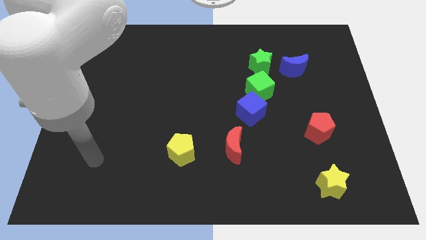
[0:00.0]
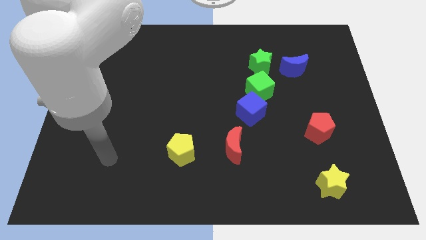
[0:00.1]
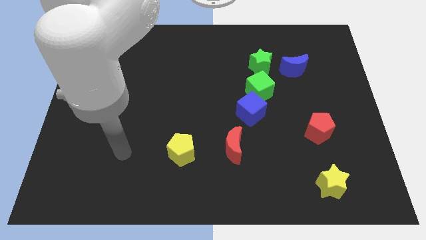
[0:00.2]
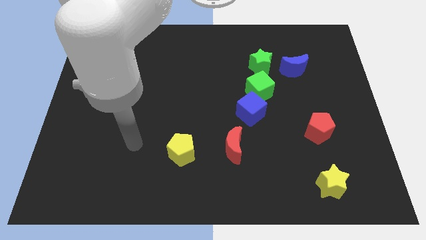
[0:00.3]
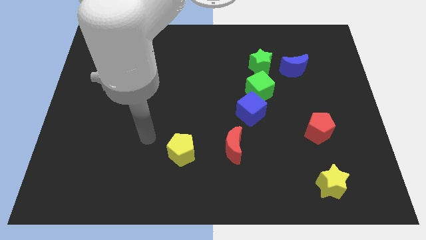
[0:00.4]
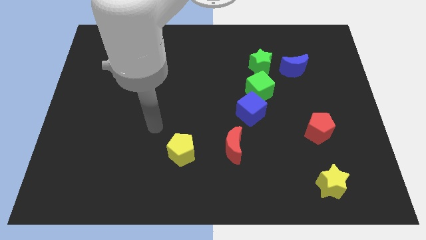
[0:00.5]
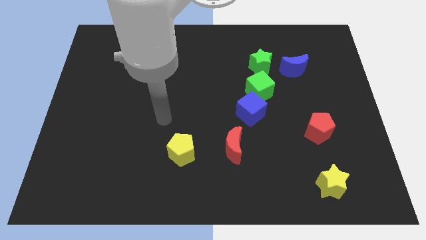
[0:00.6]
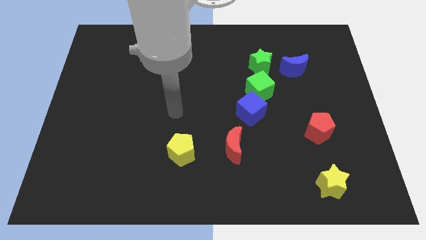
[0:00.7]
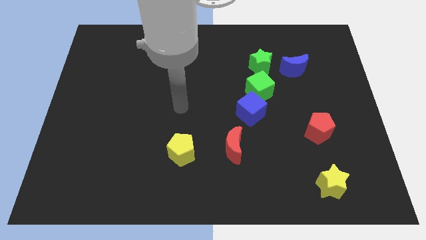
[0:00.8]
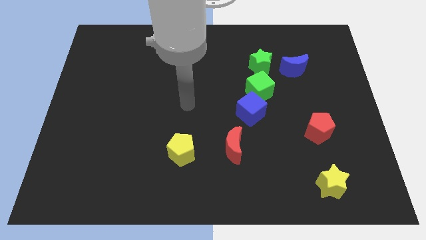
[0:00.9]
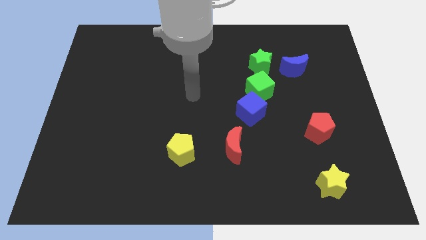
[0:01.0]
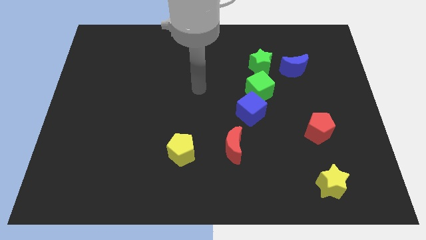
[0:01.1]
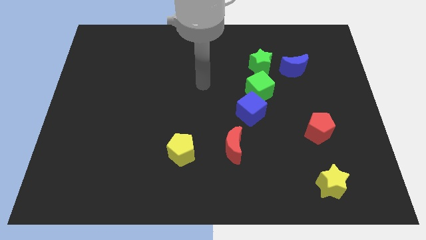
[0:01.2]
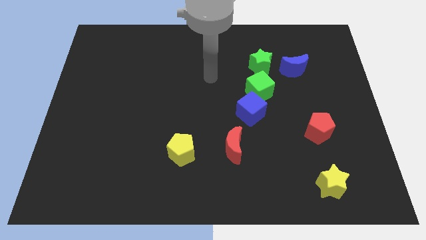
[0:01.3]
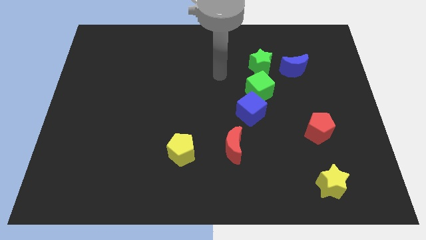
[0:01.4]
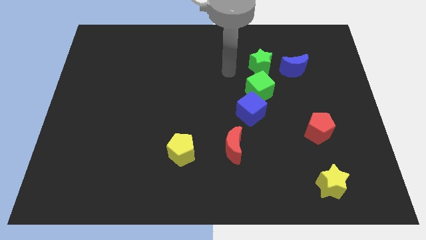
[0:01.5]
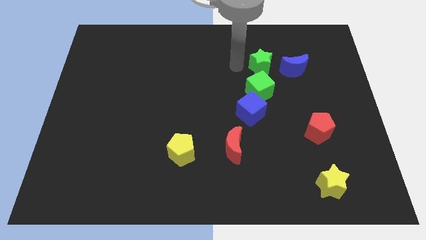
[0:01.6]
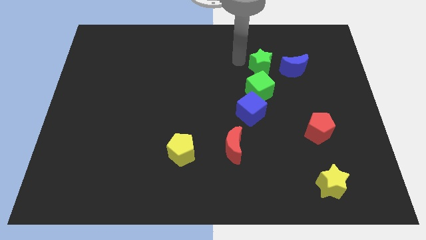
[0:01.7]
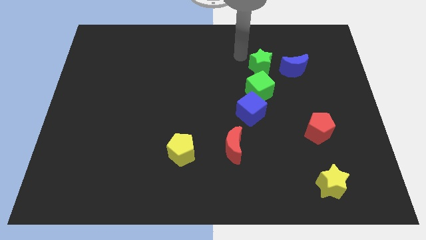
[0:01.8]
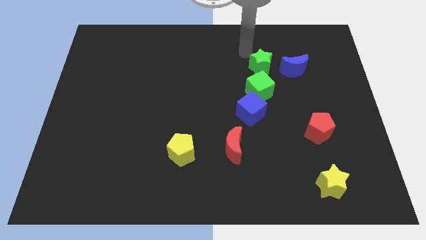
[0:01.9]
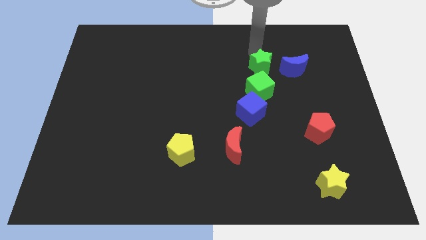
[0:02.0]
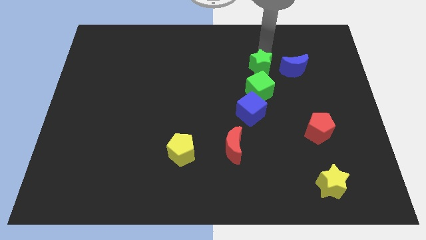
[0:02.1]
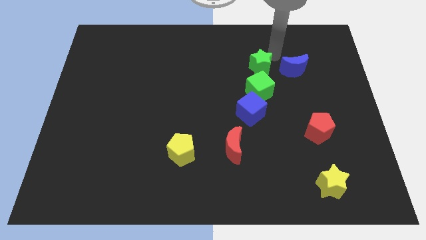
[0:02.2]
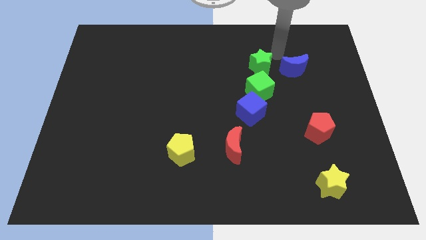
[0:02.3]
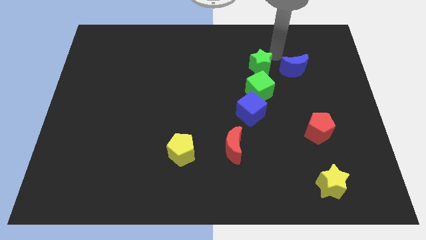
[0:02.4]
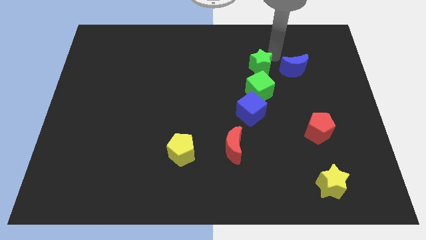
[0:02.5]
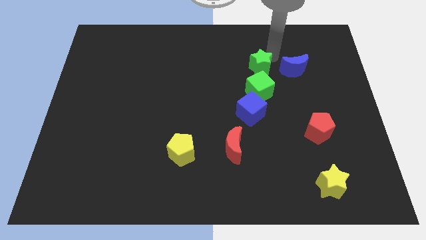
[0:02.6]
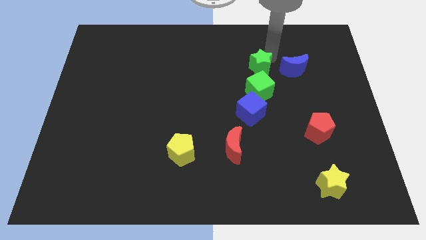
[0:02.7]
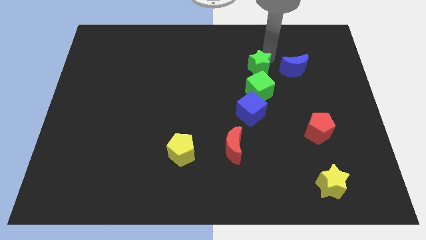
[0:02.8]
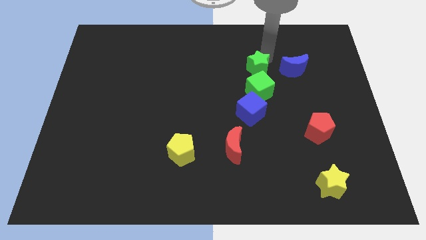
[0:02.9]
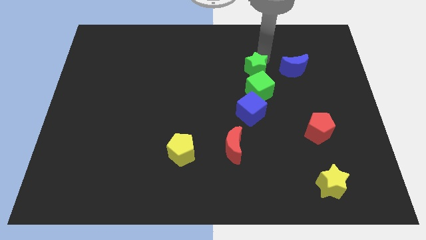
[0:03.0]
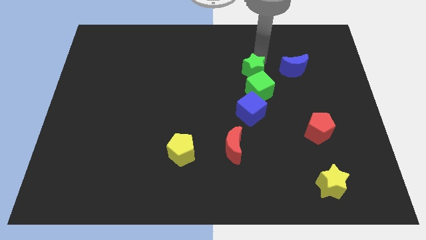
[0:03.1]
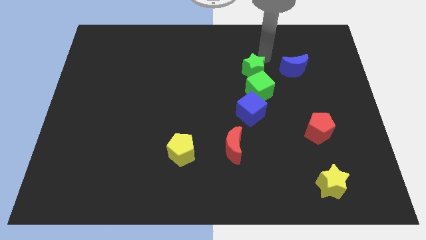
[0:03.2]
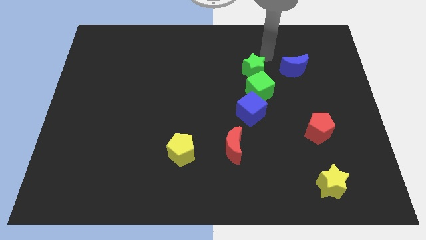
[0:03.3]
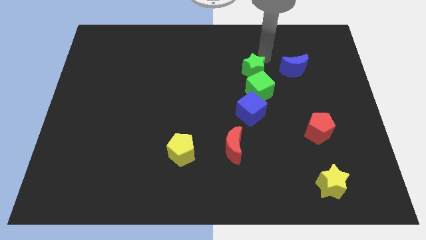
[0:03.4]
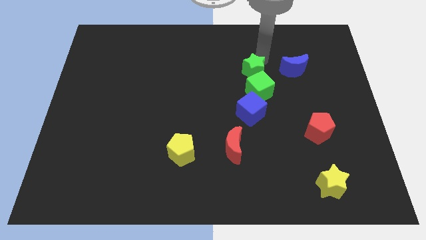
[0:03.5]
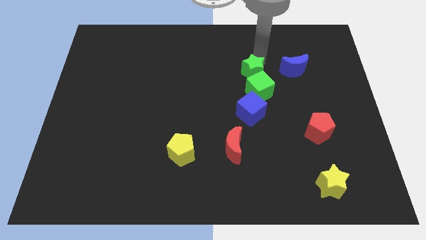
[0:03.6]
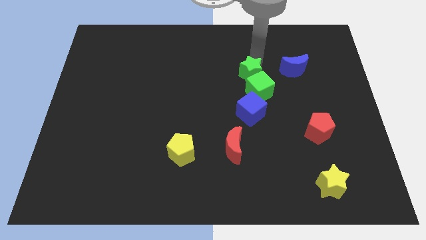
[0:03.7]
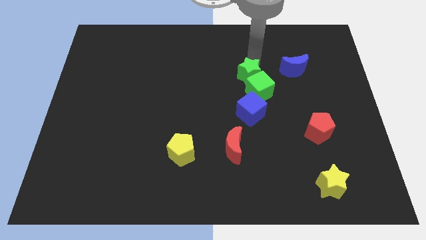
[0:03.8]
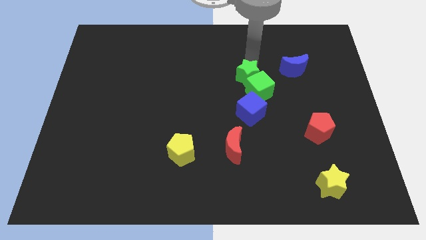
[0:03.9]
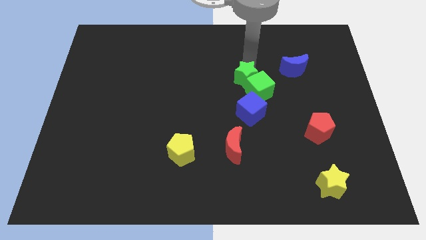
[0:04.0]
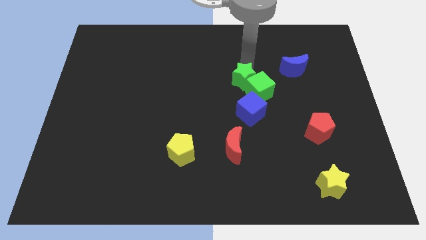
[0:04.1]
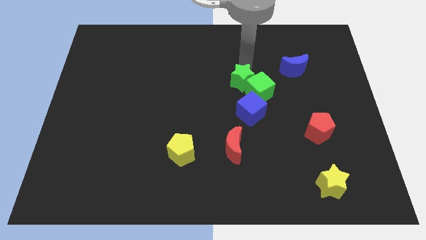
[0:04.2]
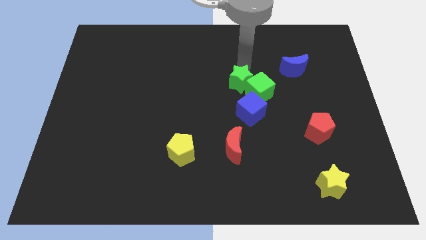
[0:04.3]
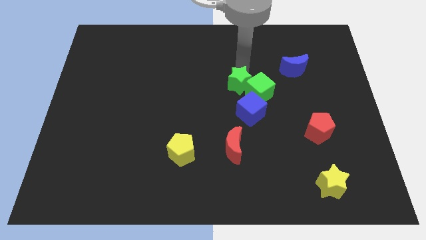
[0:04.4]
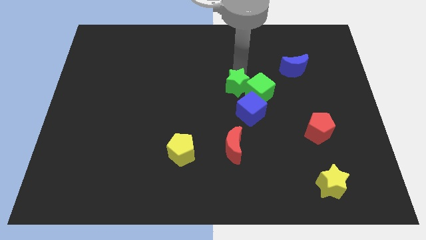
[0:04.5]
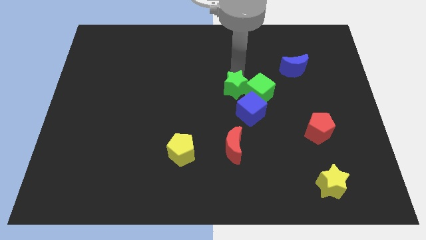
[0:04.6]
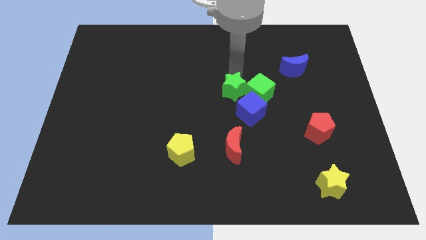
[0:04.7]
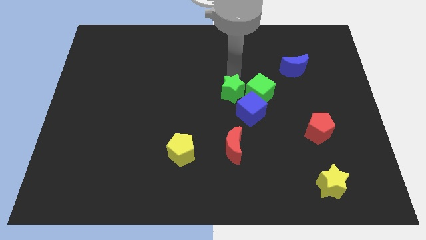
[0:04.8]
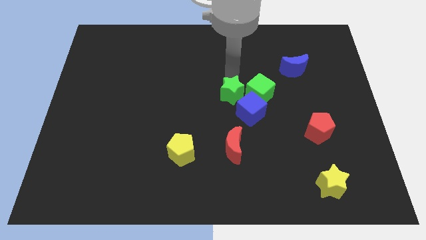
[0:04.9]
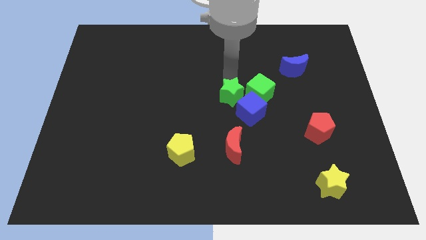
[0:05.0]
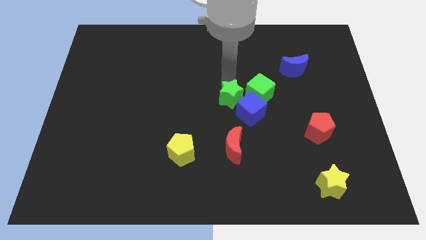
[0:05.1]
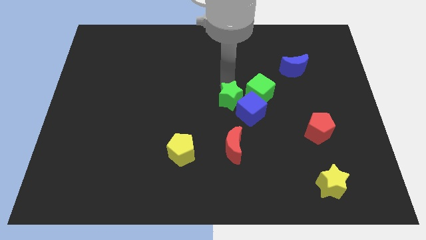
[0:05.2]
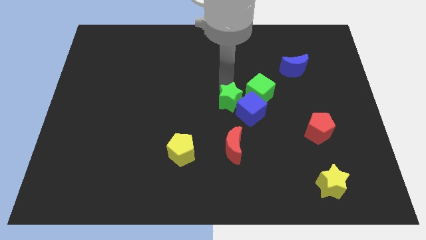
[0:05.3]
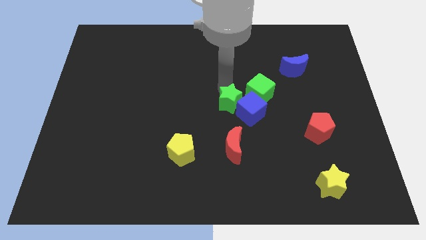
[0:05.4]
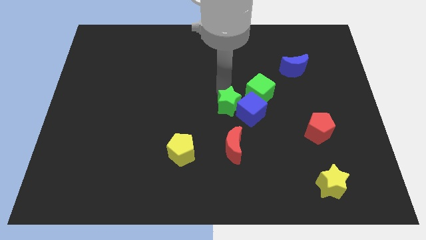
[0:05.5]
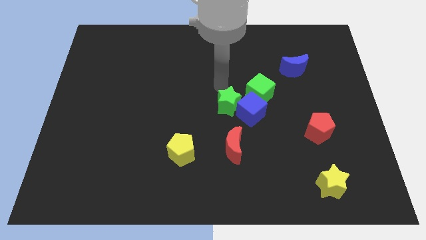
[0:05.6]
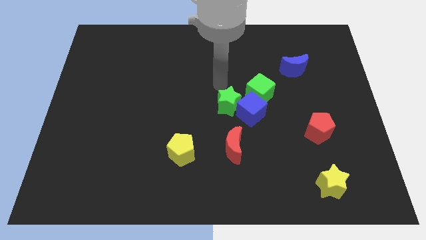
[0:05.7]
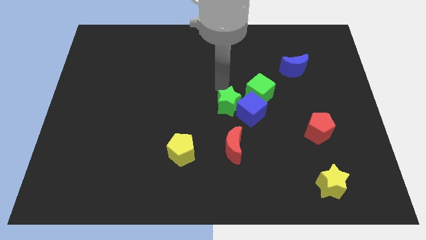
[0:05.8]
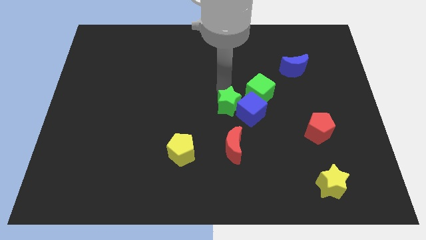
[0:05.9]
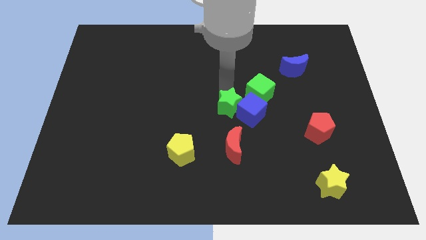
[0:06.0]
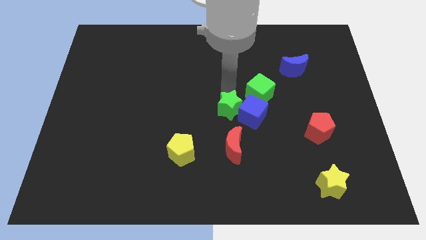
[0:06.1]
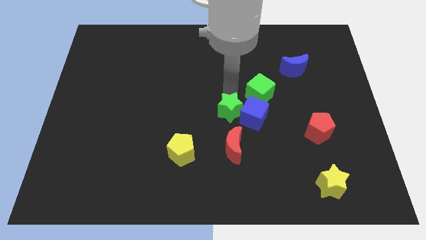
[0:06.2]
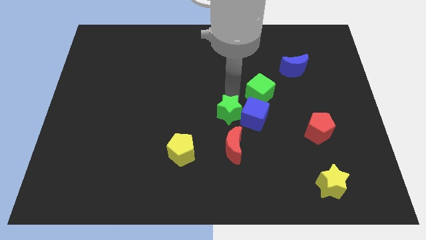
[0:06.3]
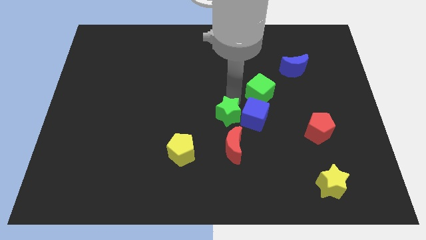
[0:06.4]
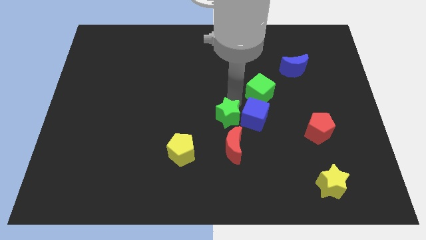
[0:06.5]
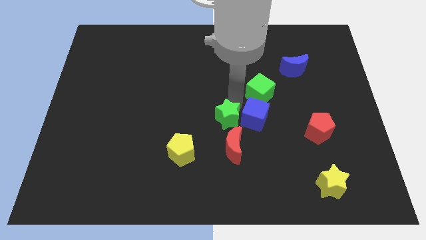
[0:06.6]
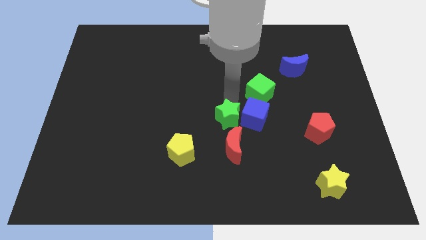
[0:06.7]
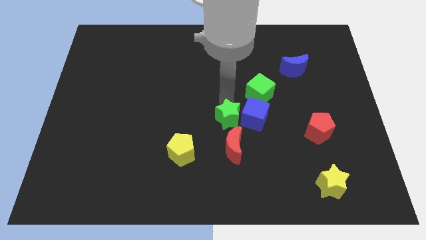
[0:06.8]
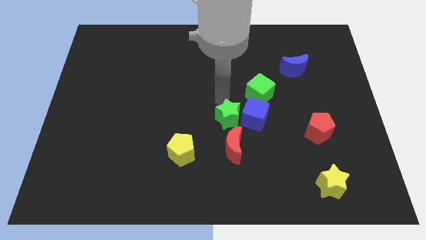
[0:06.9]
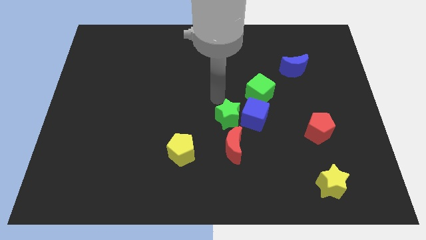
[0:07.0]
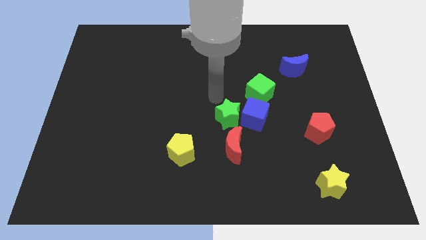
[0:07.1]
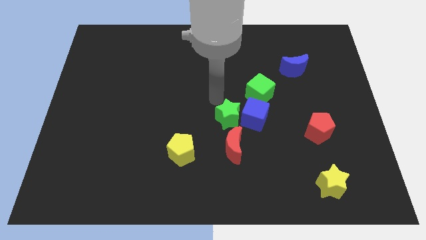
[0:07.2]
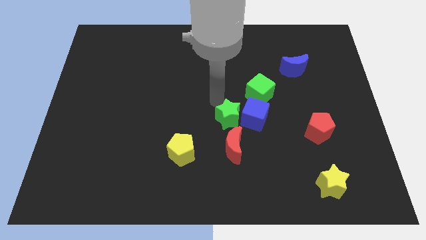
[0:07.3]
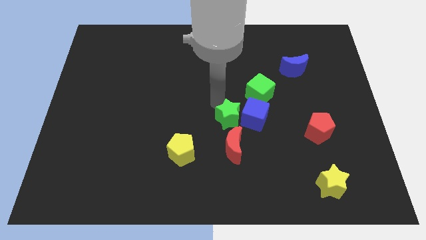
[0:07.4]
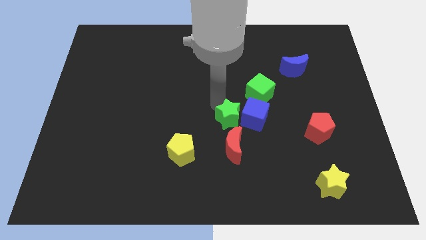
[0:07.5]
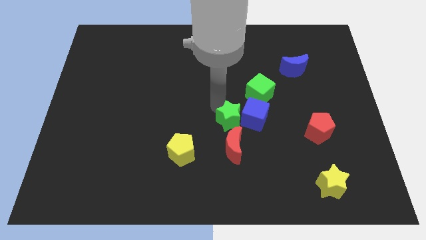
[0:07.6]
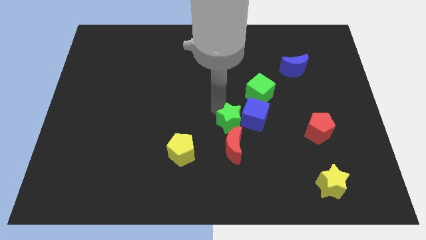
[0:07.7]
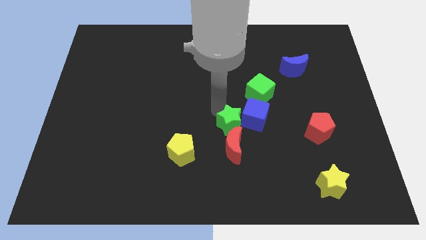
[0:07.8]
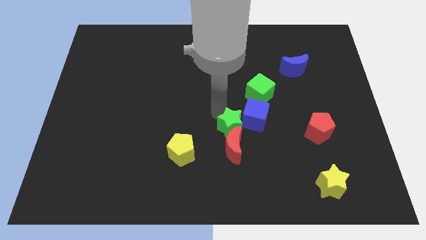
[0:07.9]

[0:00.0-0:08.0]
push the green star to the top right of the red moon
